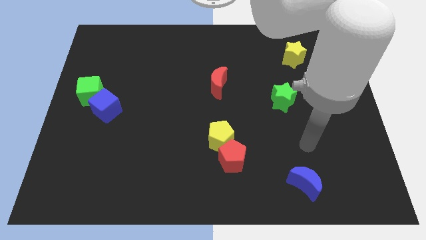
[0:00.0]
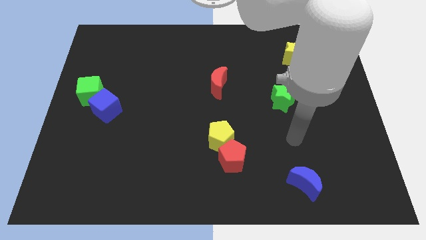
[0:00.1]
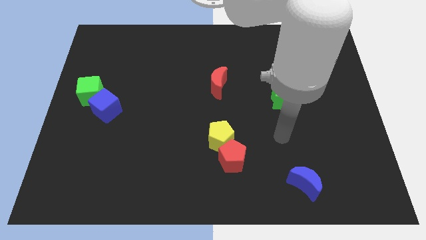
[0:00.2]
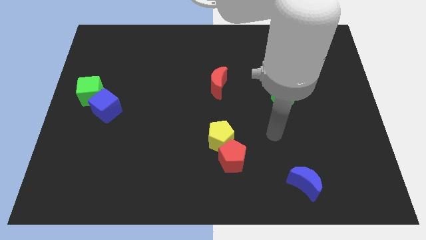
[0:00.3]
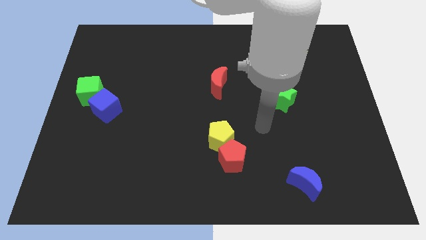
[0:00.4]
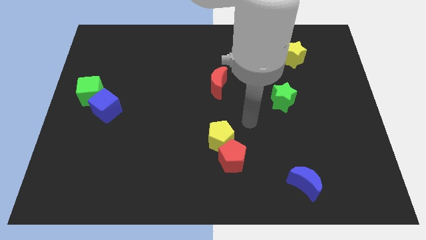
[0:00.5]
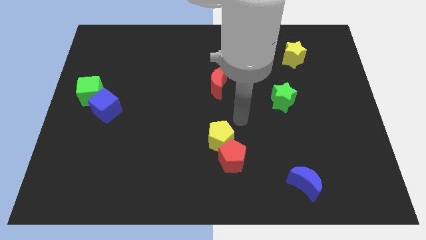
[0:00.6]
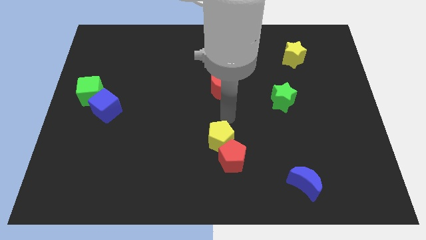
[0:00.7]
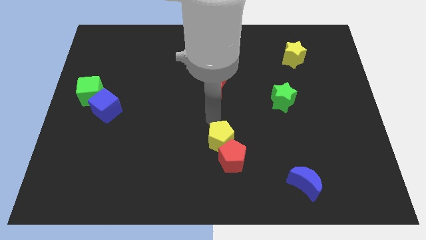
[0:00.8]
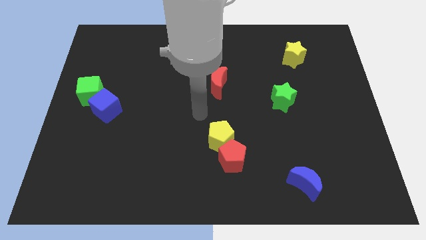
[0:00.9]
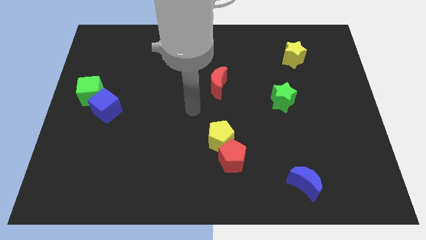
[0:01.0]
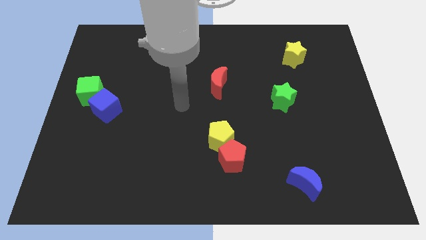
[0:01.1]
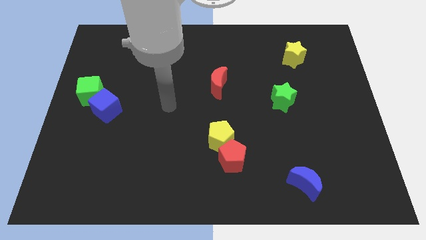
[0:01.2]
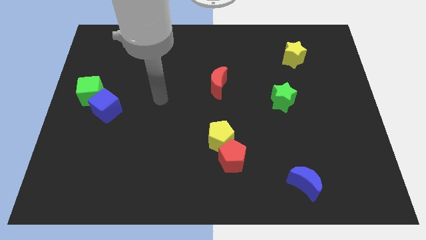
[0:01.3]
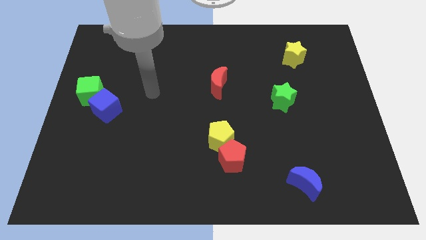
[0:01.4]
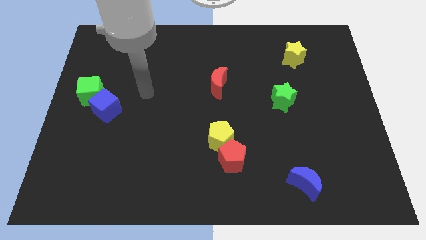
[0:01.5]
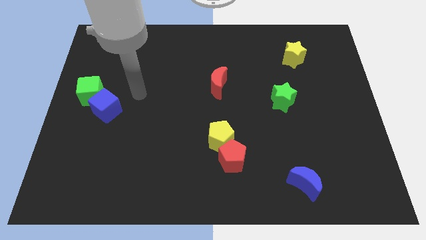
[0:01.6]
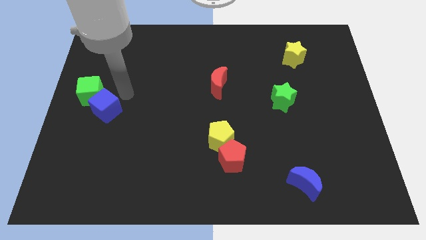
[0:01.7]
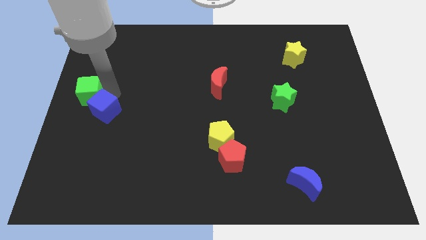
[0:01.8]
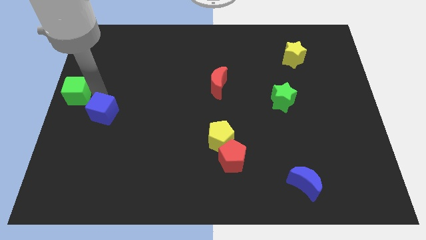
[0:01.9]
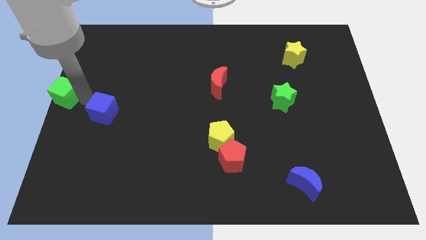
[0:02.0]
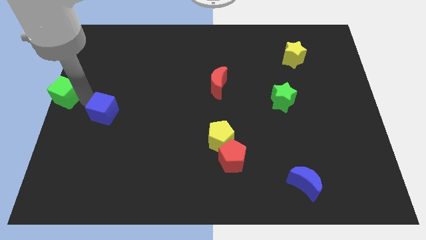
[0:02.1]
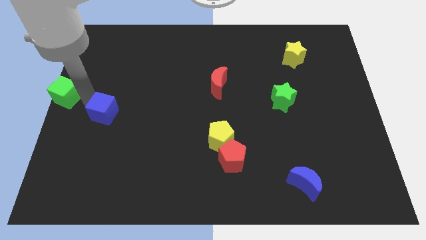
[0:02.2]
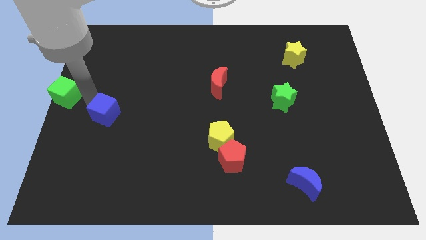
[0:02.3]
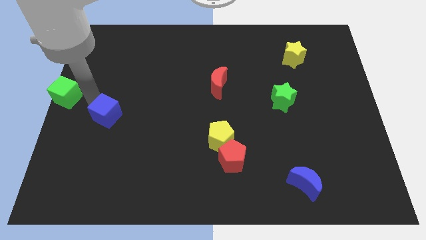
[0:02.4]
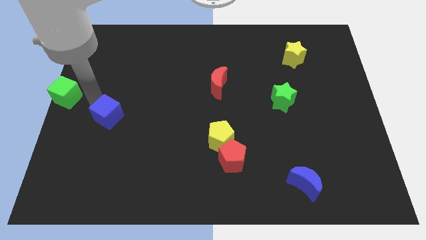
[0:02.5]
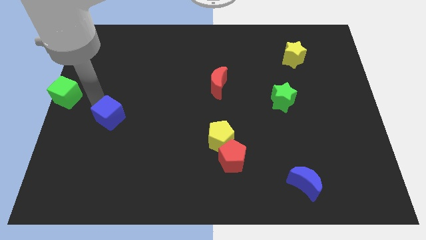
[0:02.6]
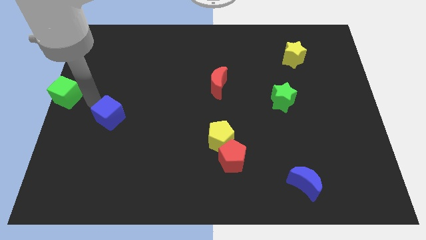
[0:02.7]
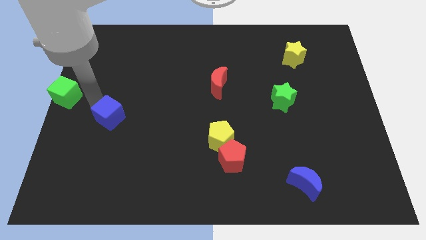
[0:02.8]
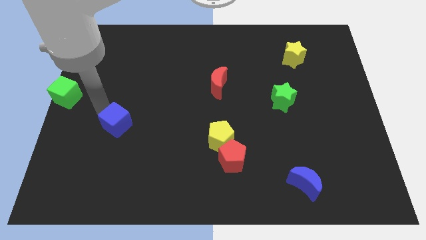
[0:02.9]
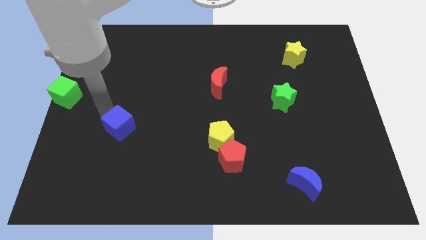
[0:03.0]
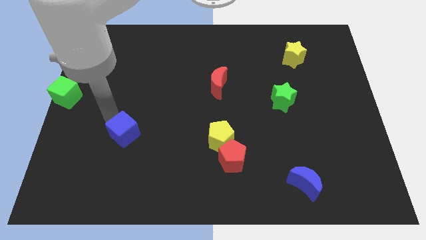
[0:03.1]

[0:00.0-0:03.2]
push the blue cube downwards and right diagonally slightly

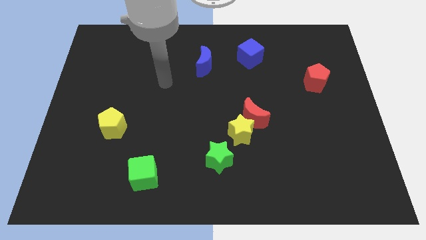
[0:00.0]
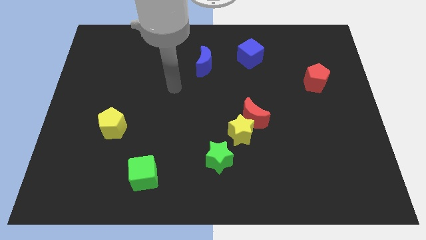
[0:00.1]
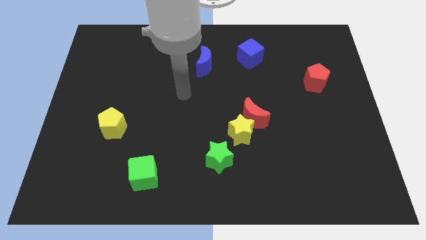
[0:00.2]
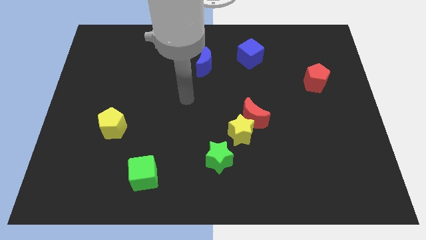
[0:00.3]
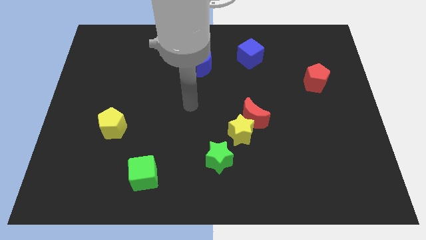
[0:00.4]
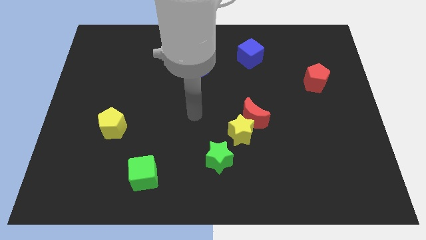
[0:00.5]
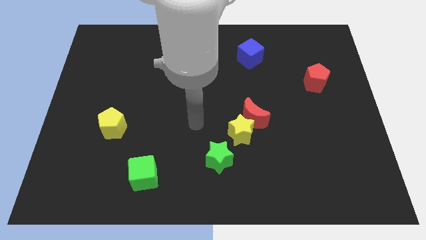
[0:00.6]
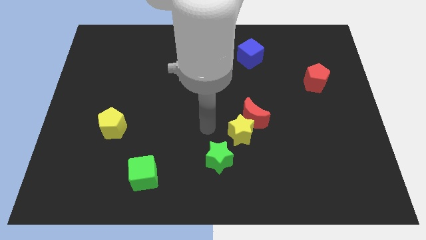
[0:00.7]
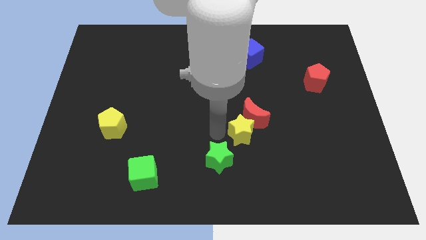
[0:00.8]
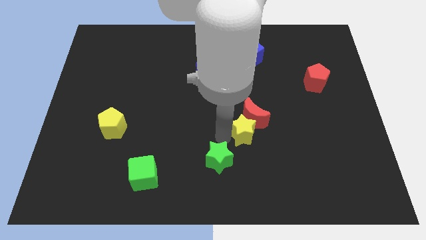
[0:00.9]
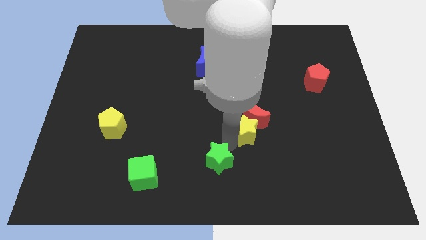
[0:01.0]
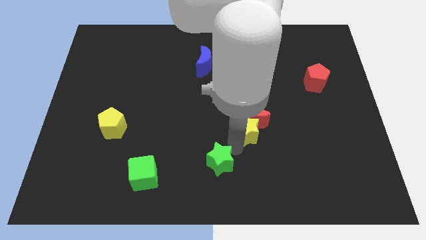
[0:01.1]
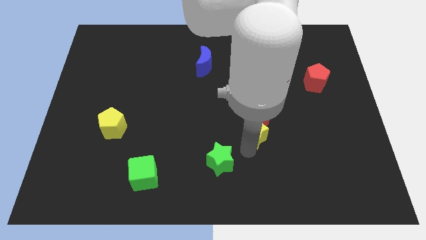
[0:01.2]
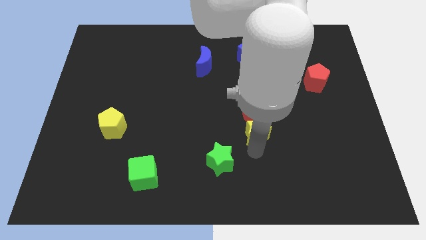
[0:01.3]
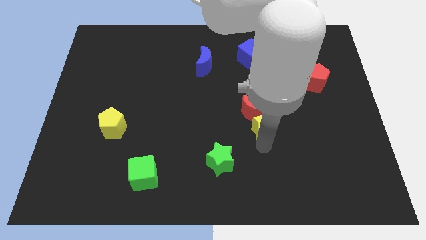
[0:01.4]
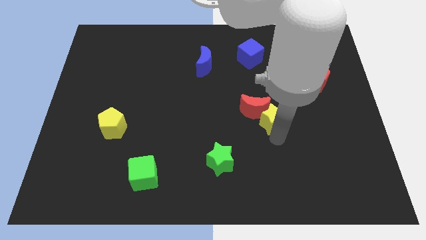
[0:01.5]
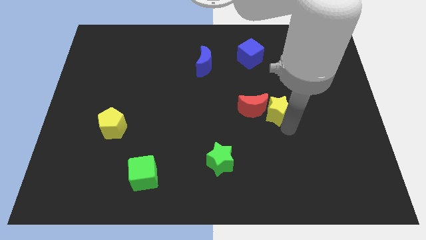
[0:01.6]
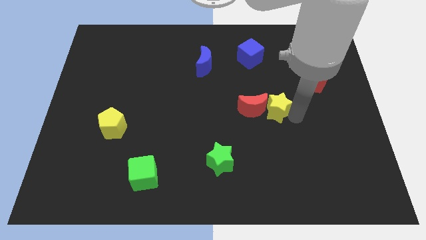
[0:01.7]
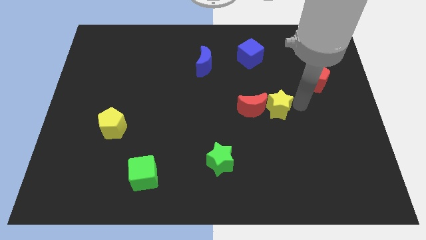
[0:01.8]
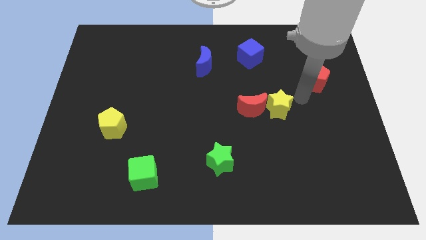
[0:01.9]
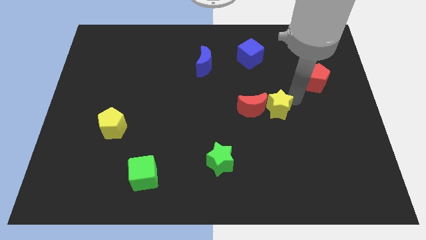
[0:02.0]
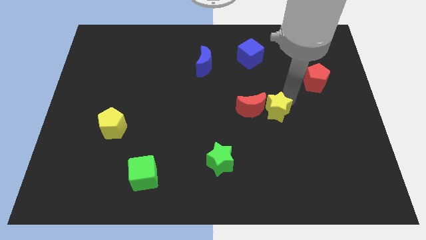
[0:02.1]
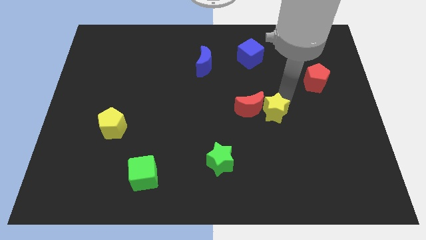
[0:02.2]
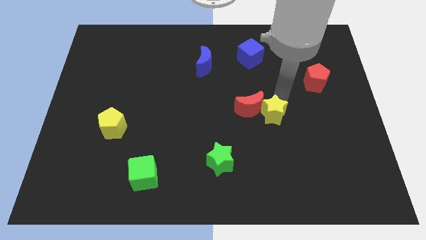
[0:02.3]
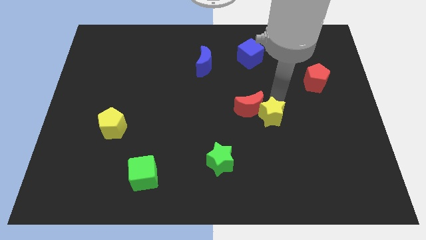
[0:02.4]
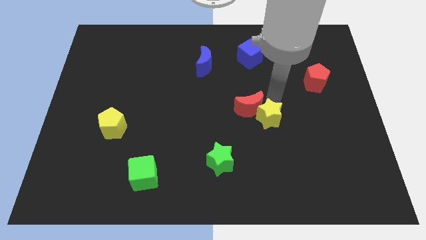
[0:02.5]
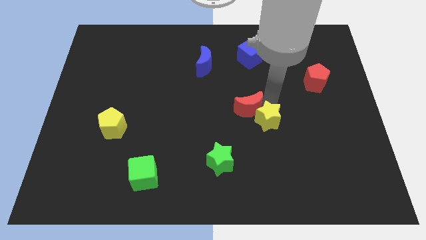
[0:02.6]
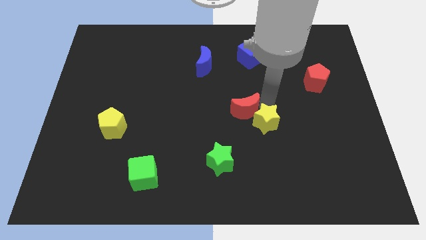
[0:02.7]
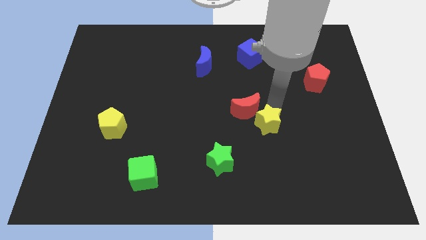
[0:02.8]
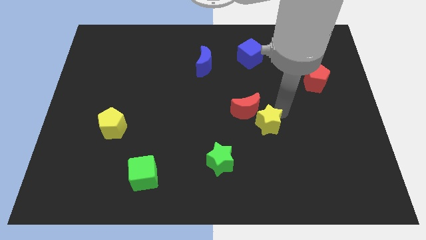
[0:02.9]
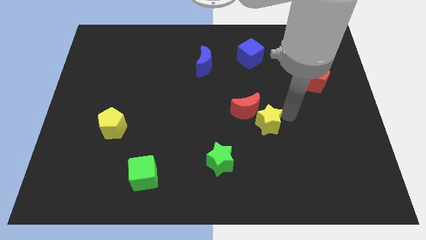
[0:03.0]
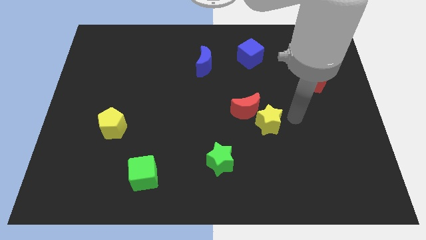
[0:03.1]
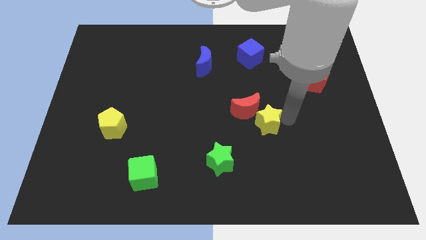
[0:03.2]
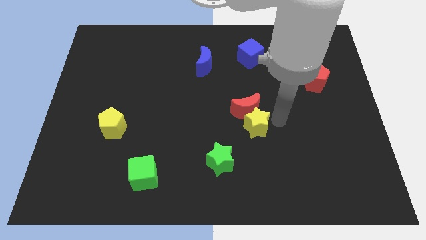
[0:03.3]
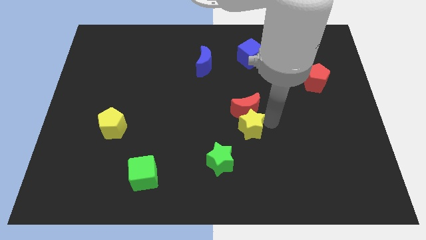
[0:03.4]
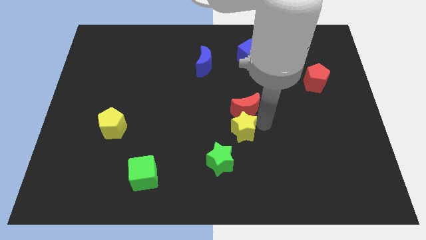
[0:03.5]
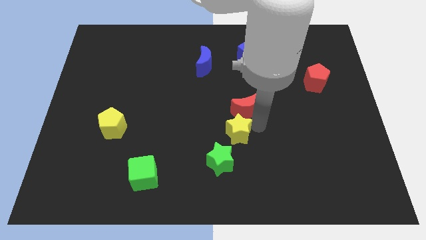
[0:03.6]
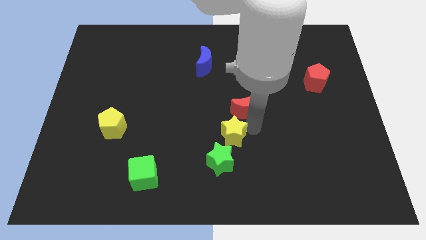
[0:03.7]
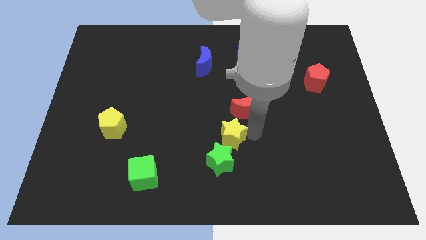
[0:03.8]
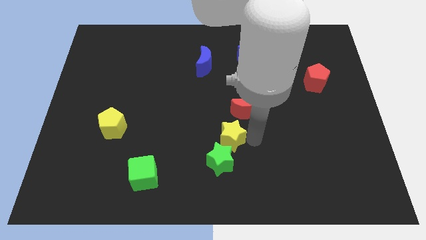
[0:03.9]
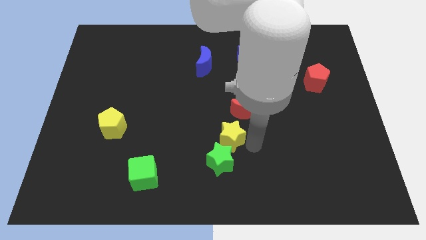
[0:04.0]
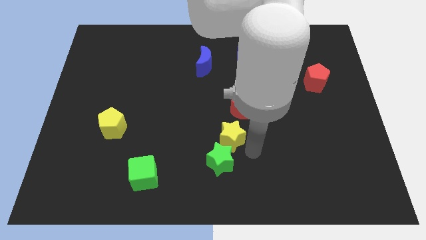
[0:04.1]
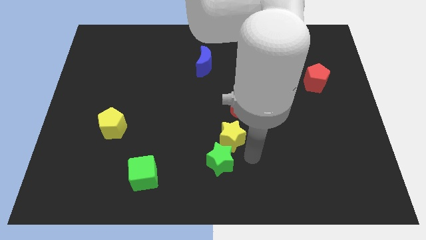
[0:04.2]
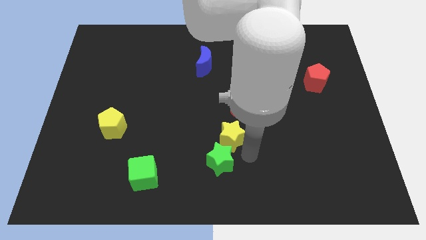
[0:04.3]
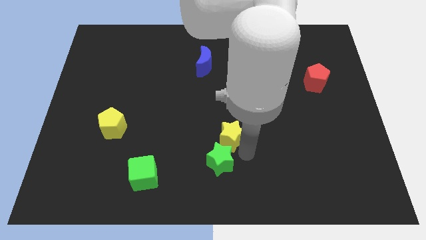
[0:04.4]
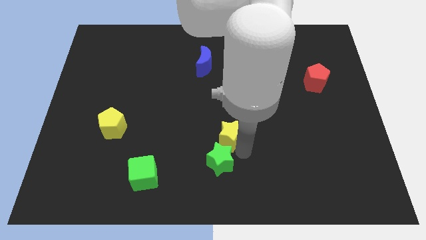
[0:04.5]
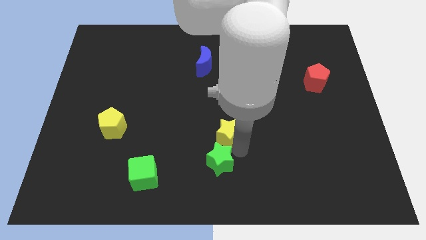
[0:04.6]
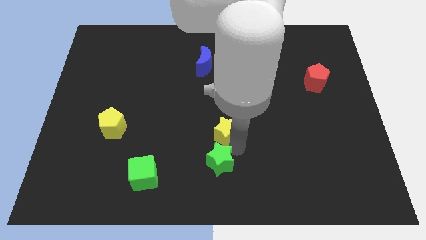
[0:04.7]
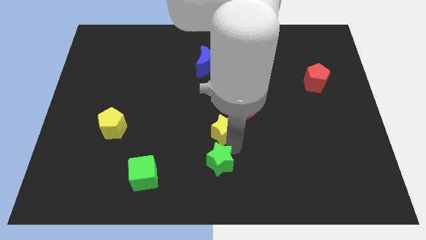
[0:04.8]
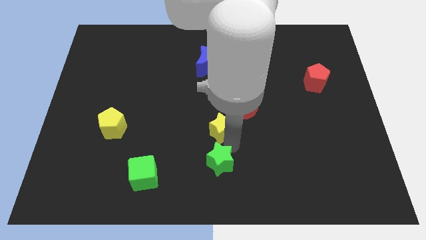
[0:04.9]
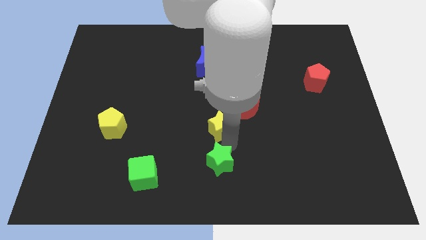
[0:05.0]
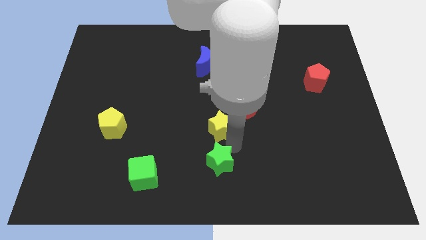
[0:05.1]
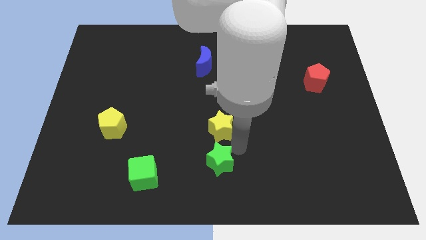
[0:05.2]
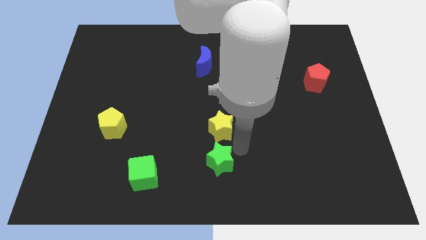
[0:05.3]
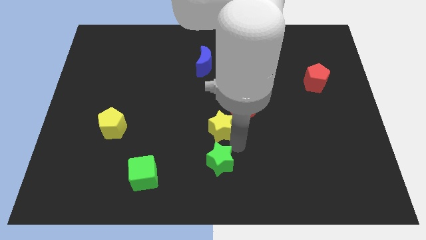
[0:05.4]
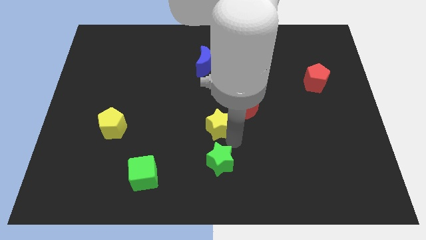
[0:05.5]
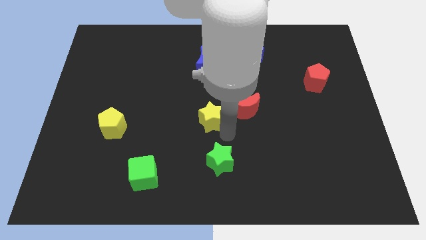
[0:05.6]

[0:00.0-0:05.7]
slide the yellow star diagonally up and to the left a little bit
